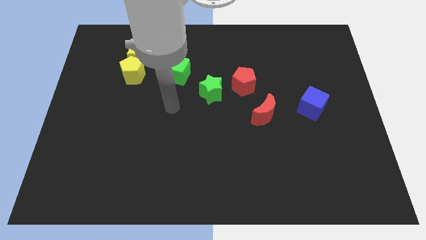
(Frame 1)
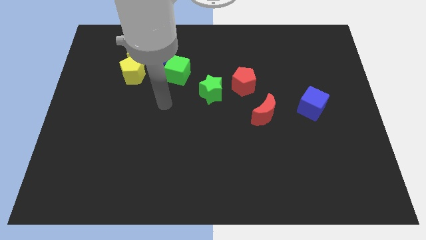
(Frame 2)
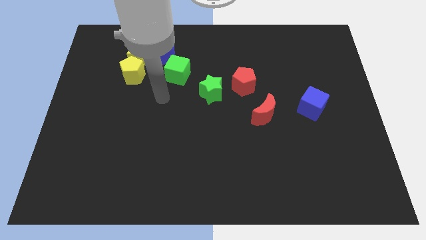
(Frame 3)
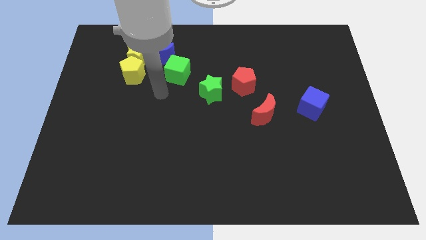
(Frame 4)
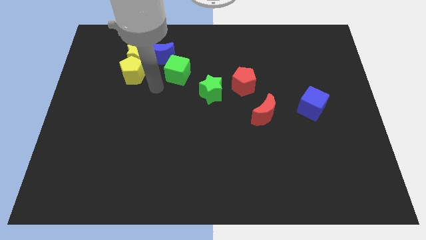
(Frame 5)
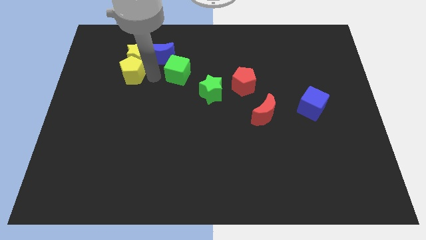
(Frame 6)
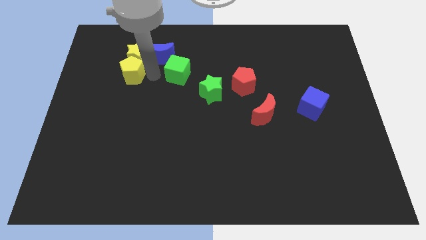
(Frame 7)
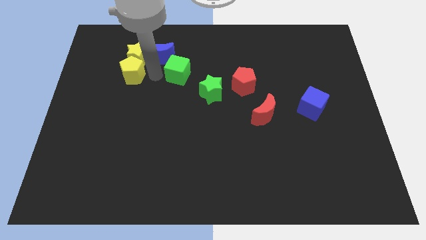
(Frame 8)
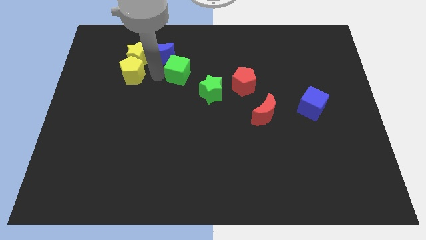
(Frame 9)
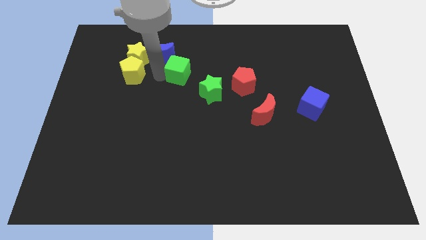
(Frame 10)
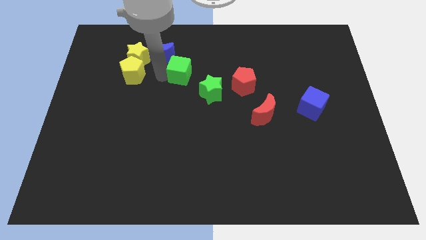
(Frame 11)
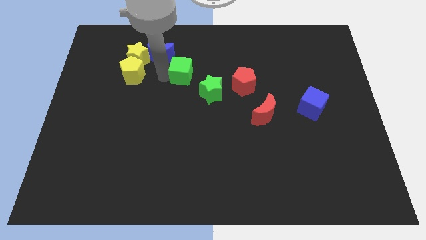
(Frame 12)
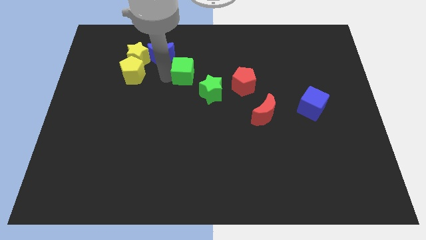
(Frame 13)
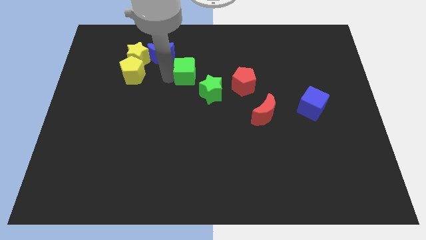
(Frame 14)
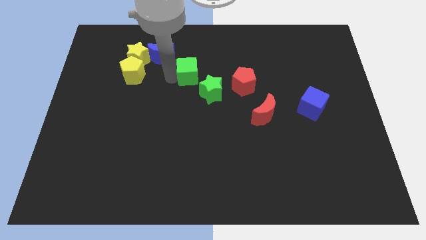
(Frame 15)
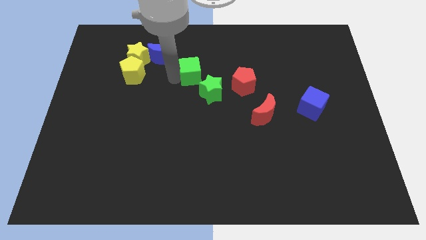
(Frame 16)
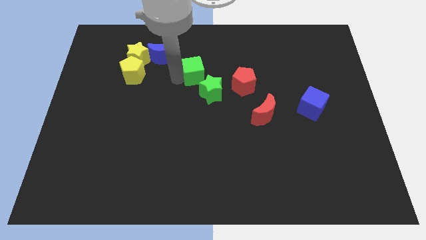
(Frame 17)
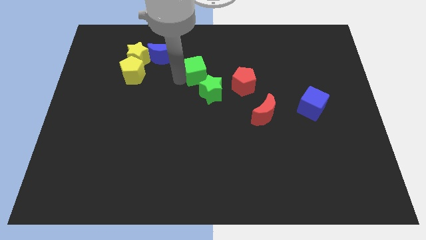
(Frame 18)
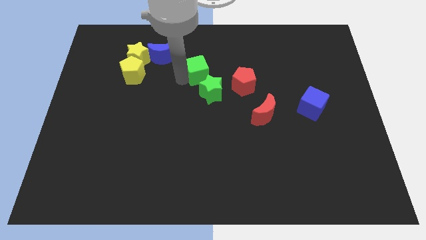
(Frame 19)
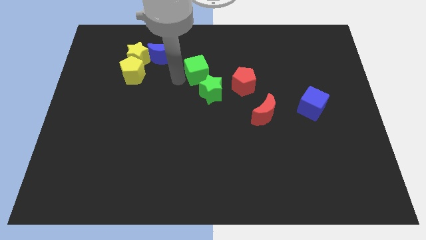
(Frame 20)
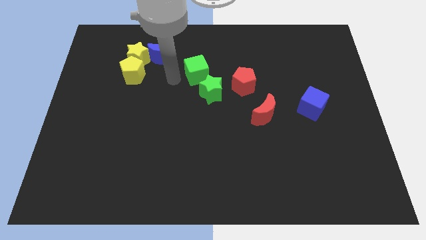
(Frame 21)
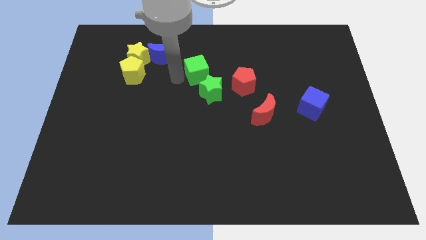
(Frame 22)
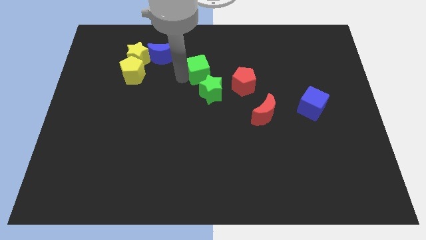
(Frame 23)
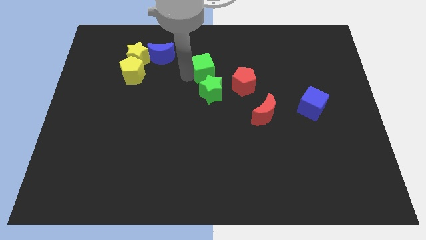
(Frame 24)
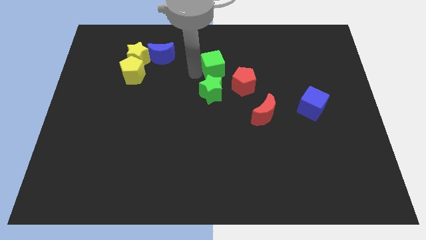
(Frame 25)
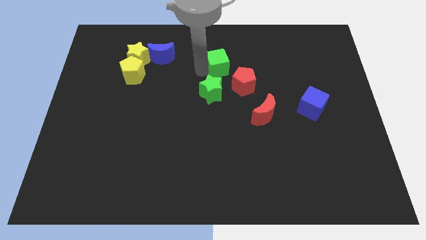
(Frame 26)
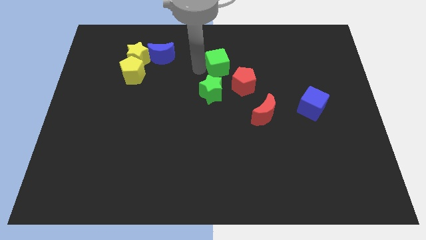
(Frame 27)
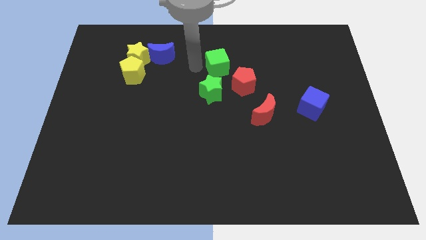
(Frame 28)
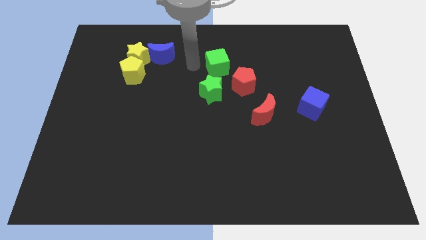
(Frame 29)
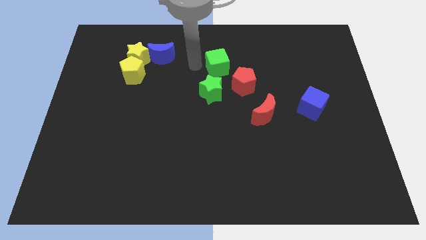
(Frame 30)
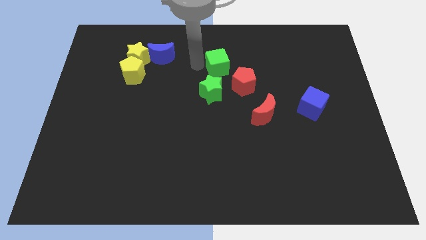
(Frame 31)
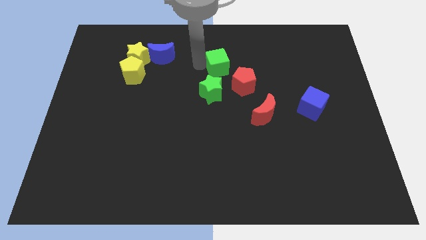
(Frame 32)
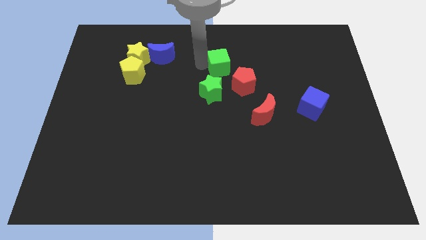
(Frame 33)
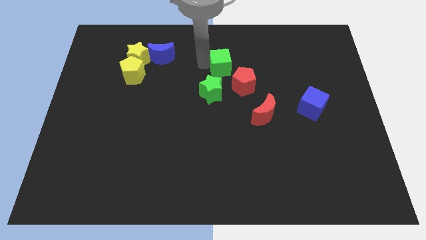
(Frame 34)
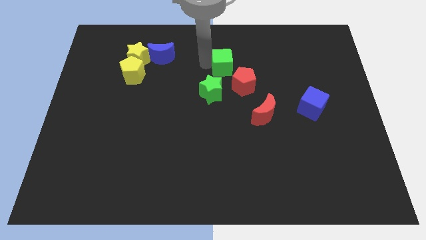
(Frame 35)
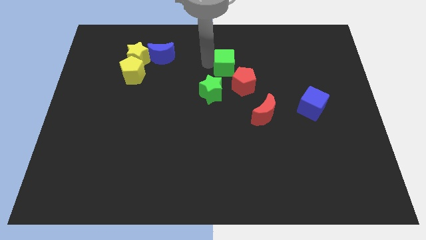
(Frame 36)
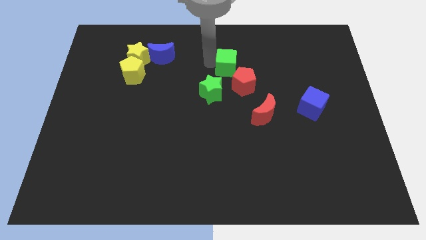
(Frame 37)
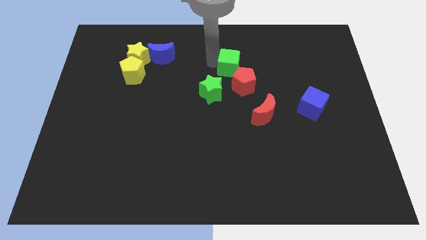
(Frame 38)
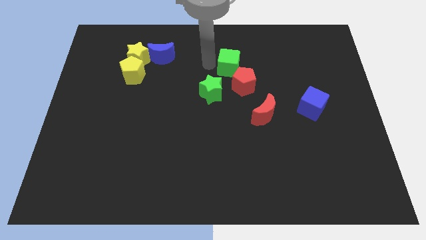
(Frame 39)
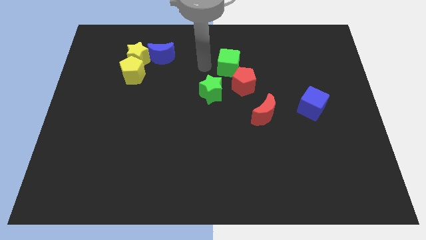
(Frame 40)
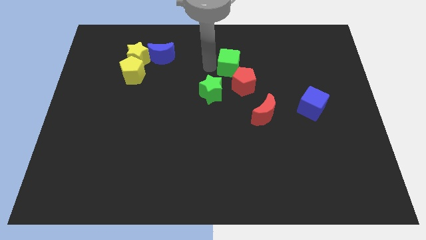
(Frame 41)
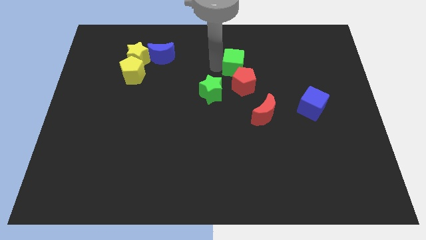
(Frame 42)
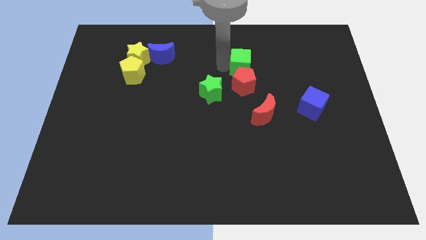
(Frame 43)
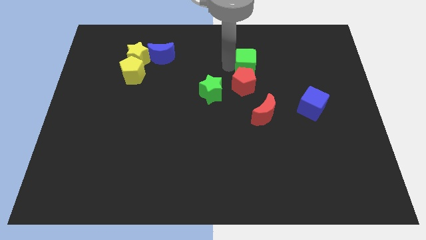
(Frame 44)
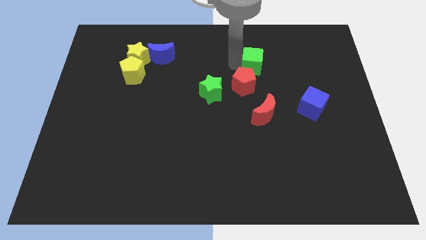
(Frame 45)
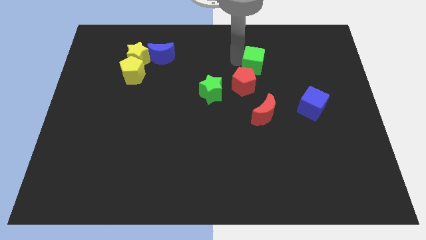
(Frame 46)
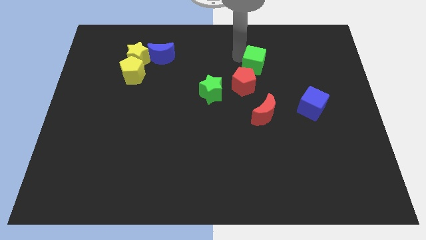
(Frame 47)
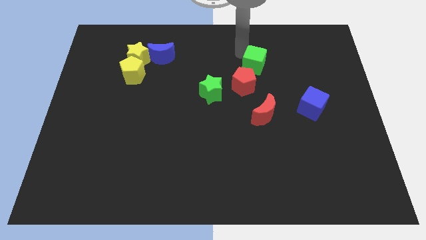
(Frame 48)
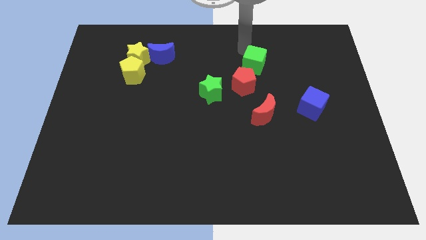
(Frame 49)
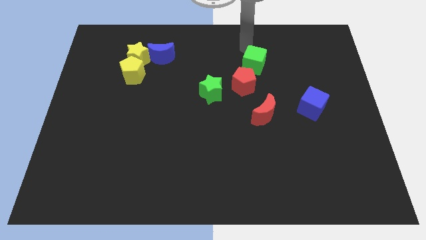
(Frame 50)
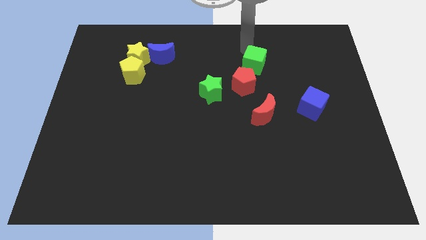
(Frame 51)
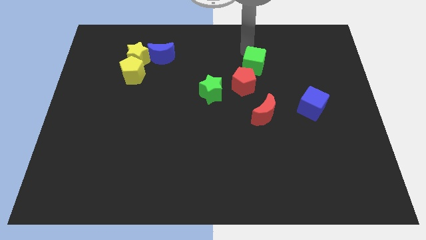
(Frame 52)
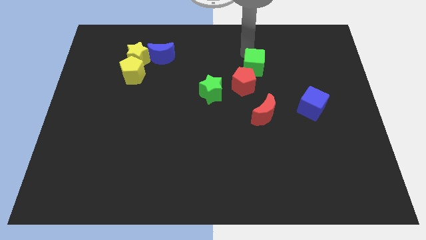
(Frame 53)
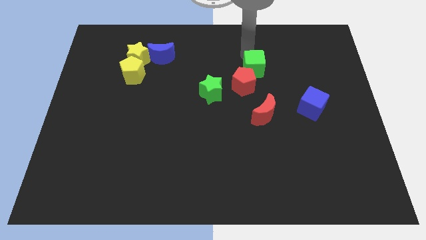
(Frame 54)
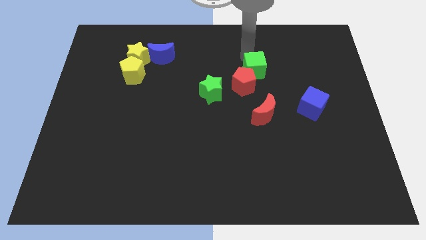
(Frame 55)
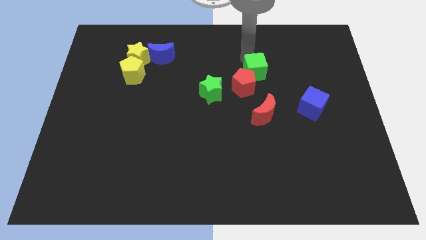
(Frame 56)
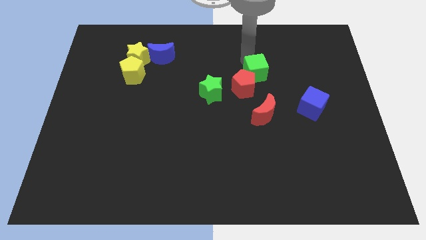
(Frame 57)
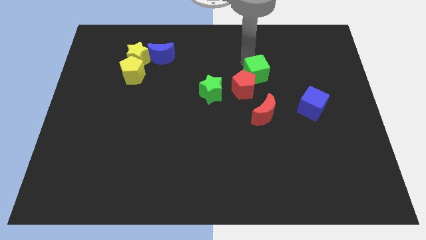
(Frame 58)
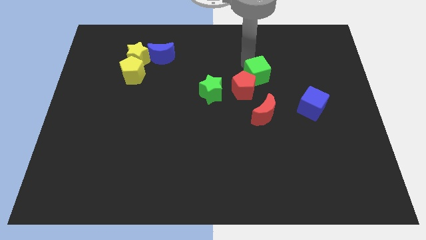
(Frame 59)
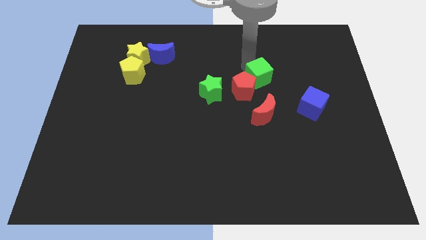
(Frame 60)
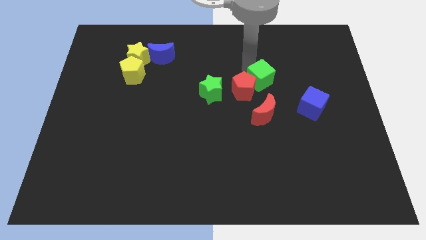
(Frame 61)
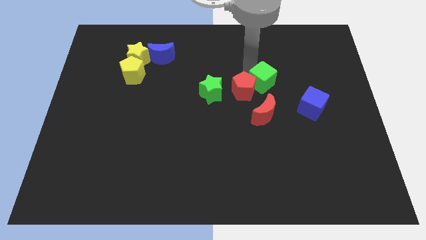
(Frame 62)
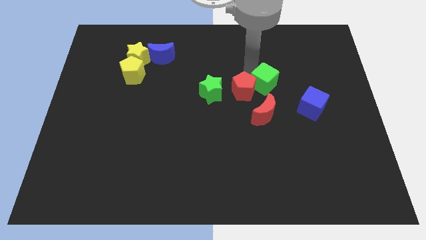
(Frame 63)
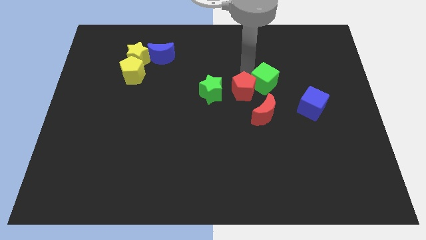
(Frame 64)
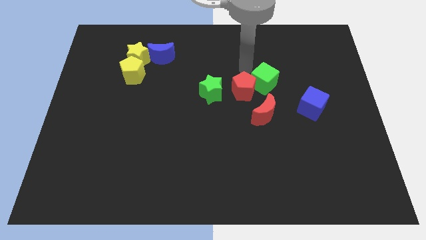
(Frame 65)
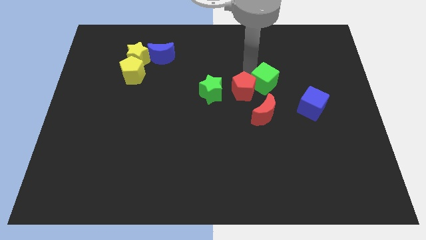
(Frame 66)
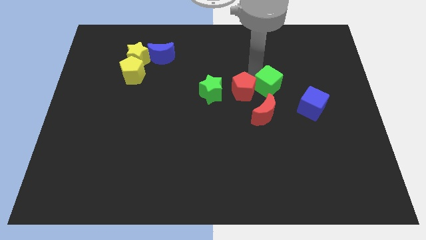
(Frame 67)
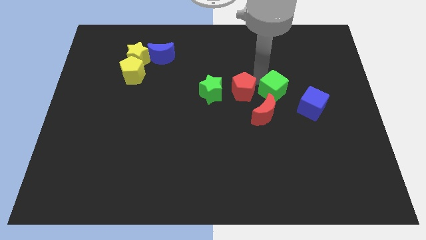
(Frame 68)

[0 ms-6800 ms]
move the green cube to the top right side of the red moon

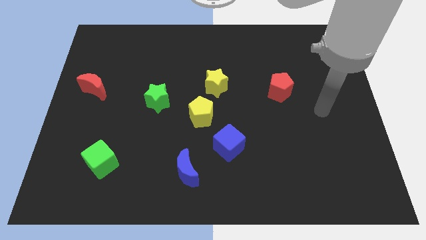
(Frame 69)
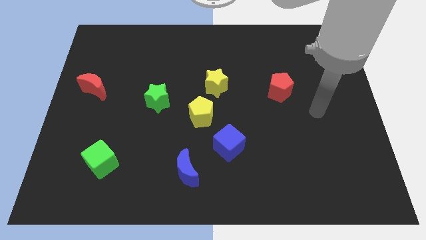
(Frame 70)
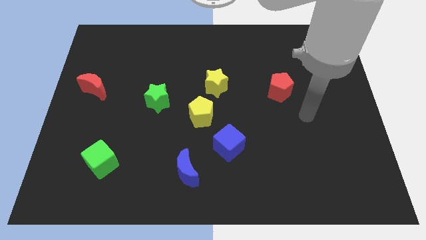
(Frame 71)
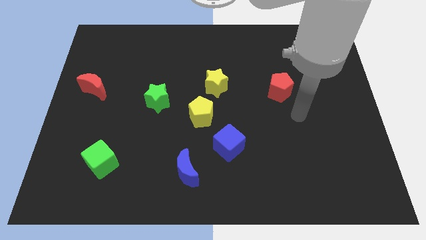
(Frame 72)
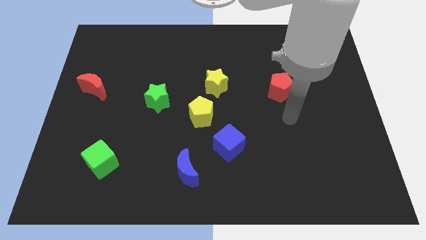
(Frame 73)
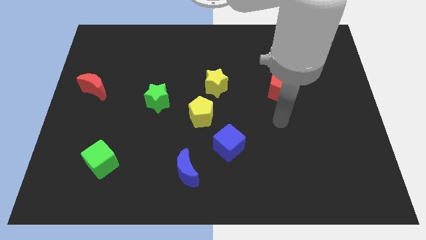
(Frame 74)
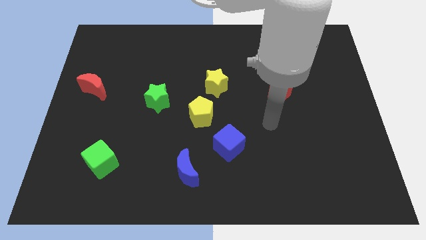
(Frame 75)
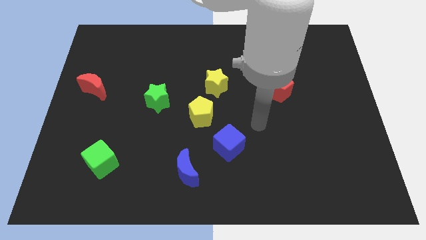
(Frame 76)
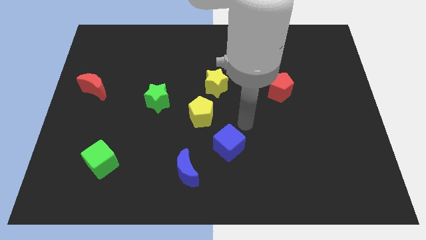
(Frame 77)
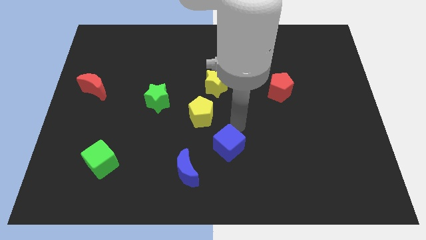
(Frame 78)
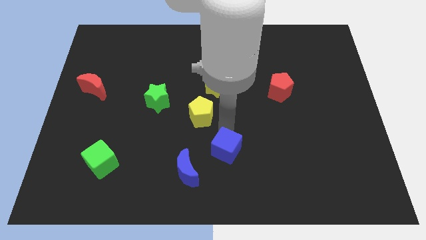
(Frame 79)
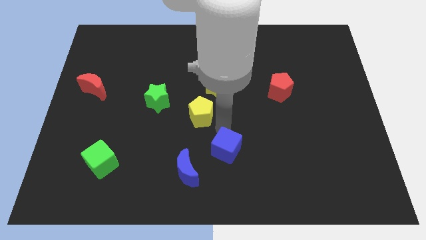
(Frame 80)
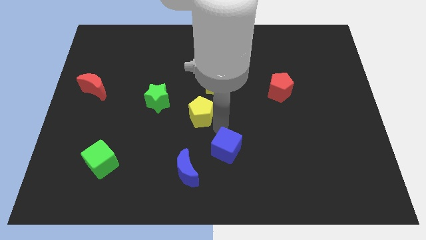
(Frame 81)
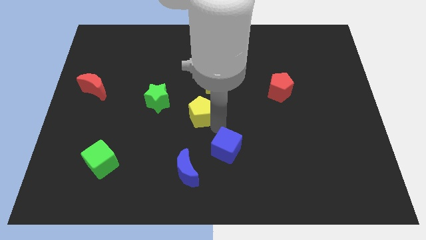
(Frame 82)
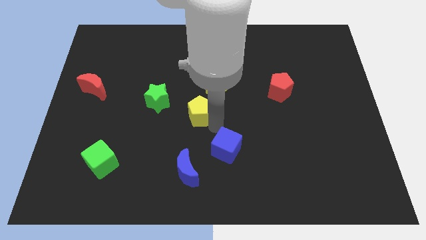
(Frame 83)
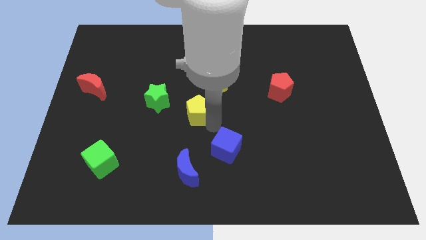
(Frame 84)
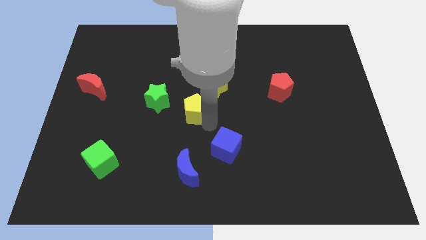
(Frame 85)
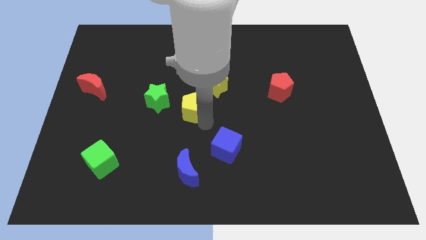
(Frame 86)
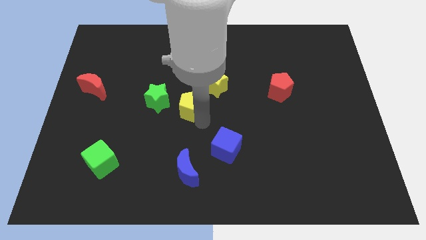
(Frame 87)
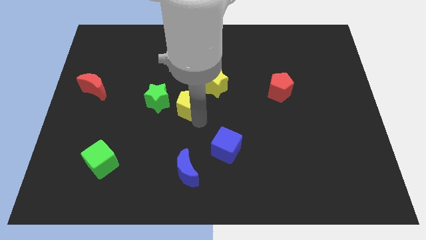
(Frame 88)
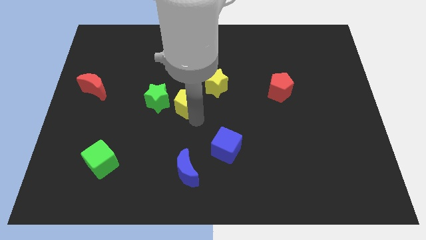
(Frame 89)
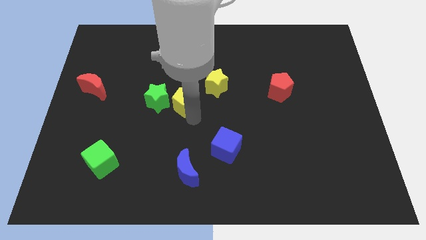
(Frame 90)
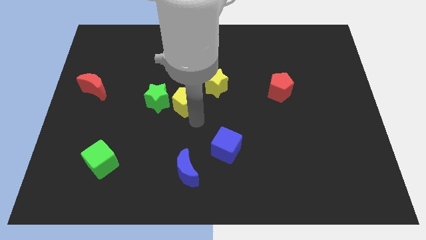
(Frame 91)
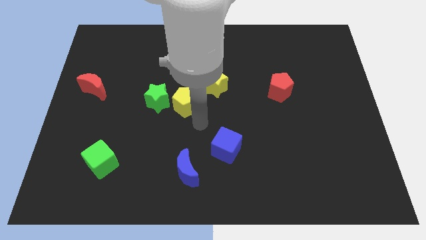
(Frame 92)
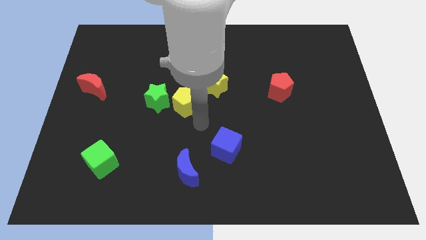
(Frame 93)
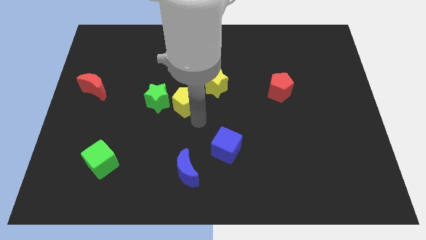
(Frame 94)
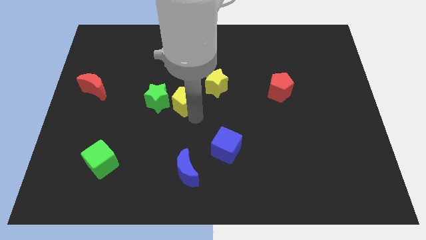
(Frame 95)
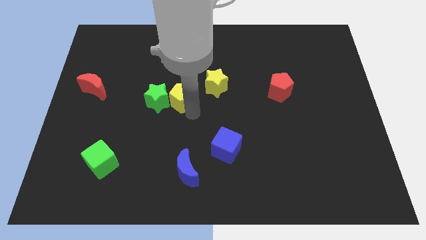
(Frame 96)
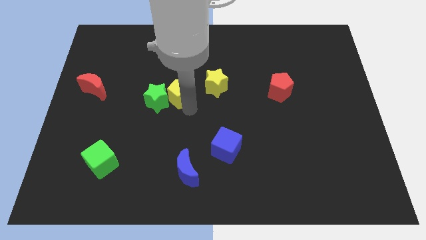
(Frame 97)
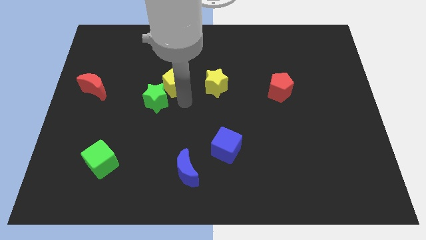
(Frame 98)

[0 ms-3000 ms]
move the yellow pentagon above the green star
